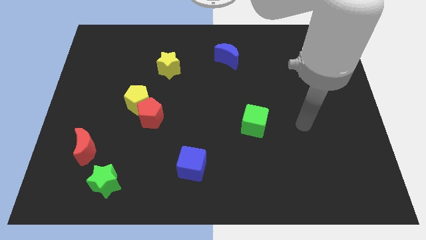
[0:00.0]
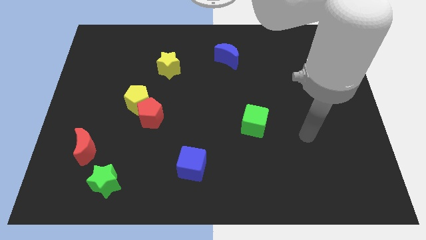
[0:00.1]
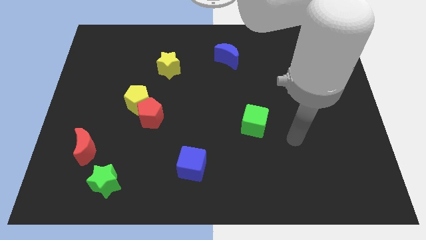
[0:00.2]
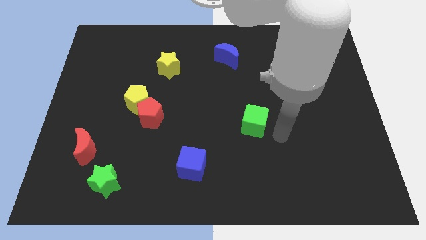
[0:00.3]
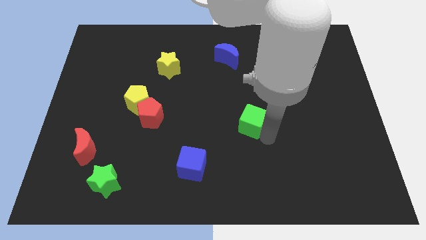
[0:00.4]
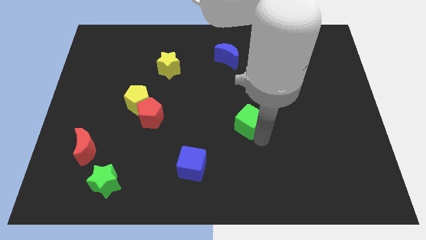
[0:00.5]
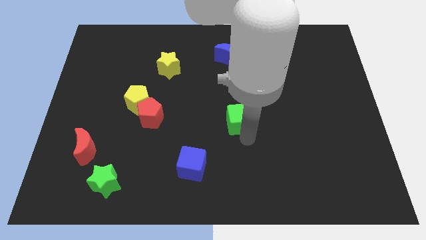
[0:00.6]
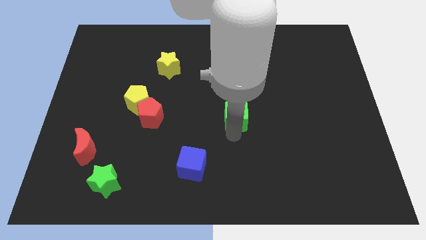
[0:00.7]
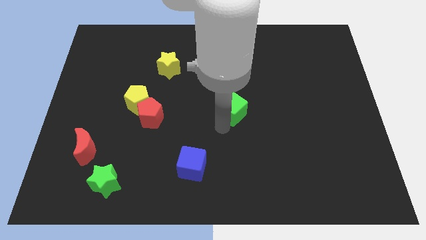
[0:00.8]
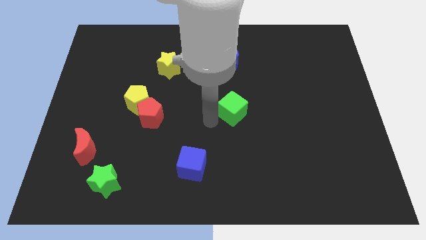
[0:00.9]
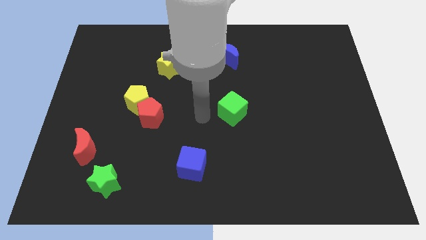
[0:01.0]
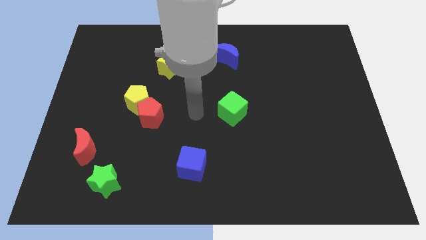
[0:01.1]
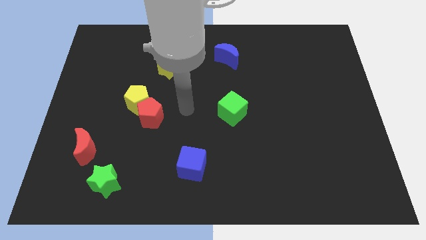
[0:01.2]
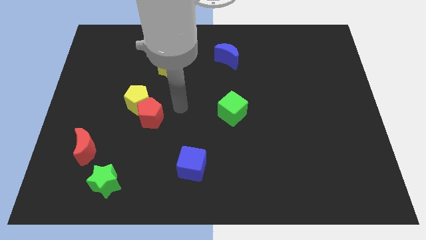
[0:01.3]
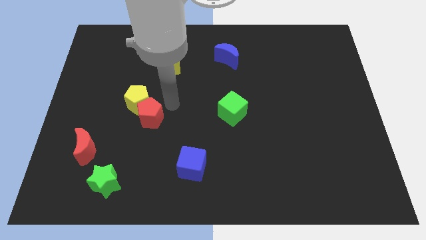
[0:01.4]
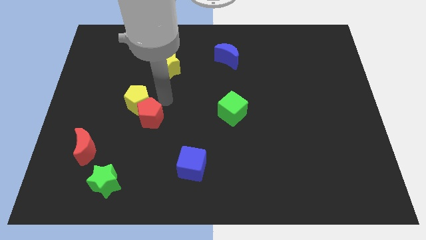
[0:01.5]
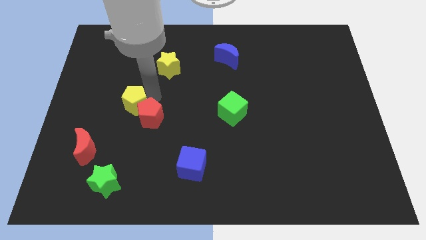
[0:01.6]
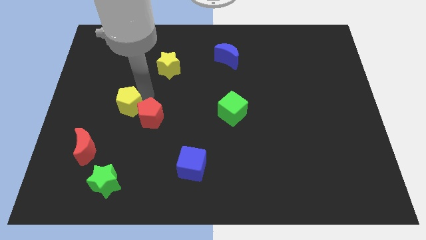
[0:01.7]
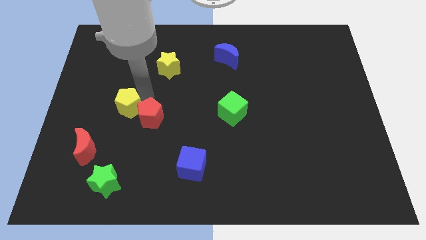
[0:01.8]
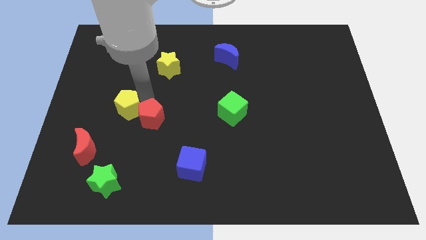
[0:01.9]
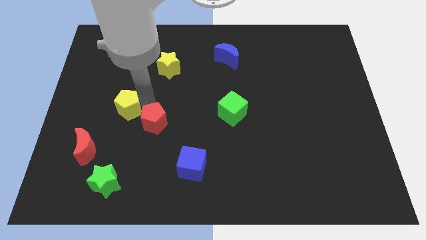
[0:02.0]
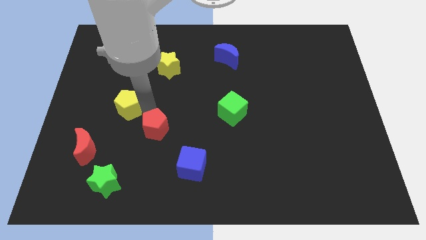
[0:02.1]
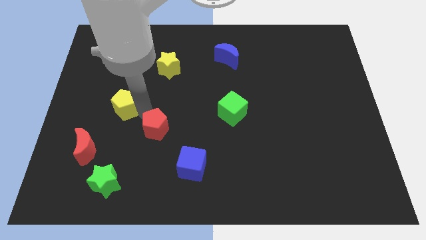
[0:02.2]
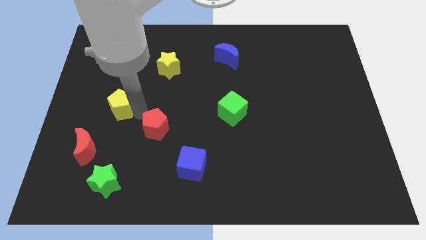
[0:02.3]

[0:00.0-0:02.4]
move the red pentagon away from the yellow pentagon

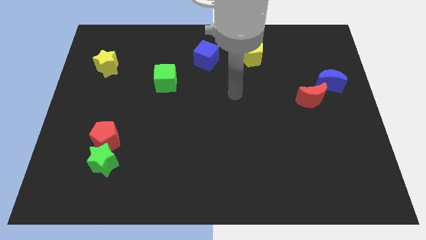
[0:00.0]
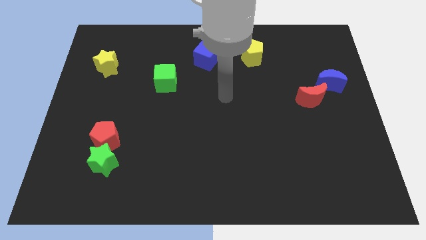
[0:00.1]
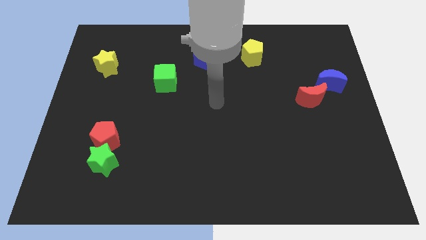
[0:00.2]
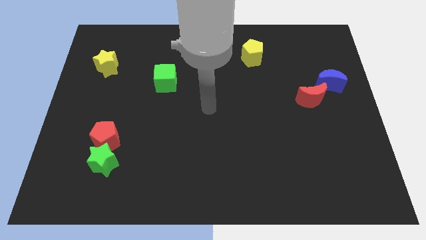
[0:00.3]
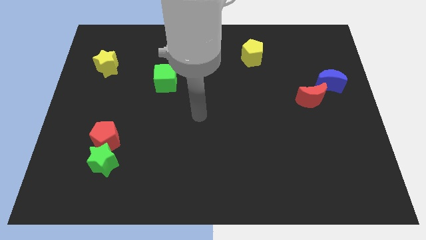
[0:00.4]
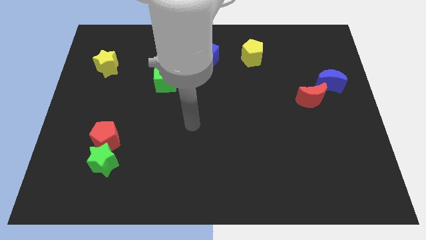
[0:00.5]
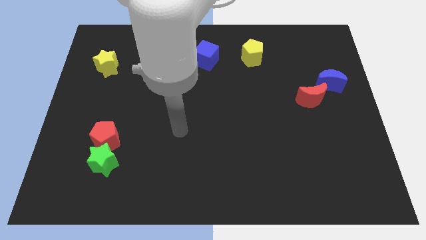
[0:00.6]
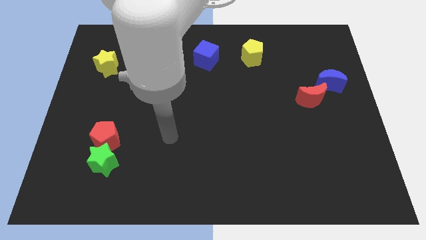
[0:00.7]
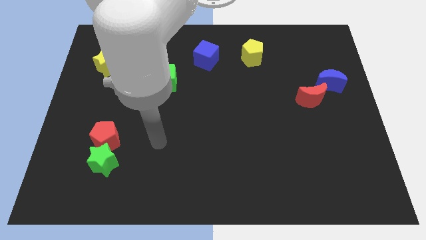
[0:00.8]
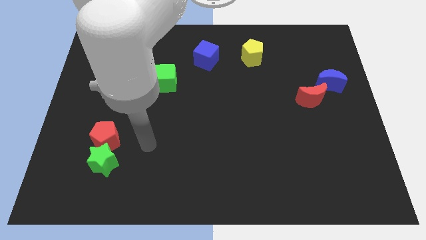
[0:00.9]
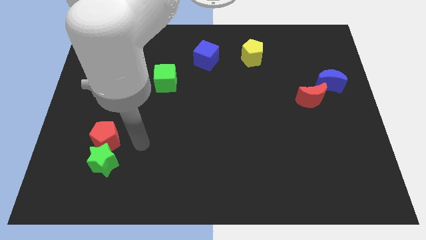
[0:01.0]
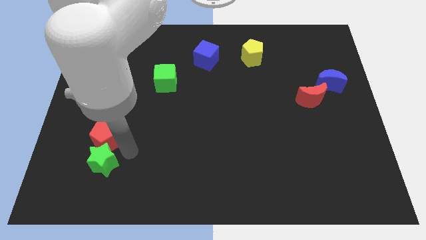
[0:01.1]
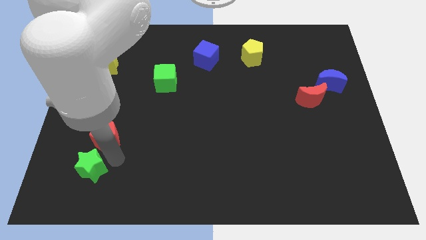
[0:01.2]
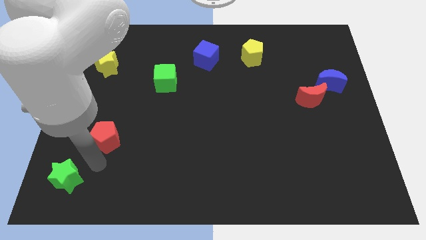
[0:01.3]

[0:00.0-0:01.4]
separate the red pentagon from the green star

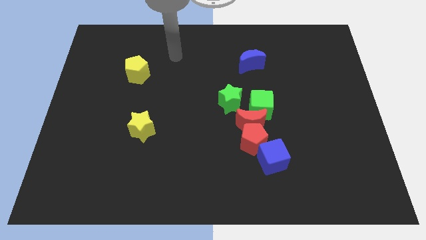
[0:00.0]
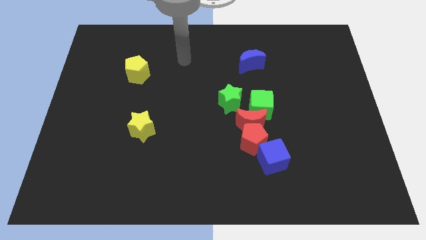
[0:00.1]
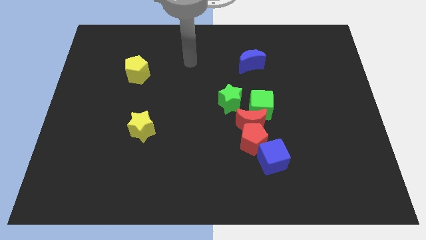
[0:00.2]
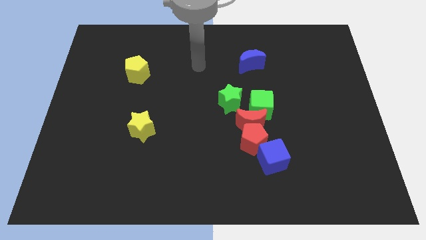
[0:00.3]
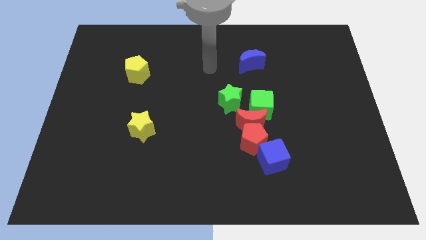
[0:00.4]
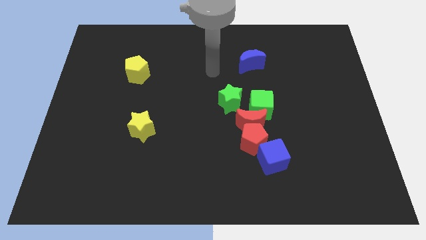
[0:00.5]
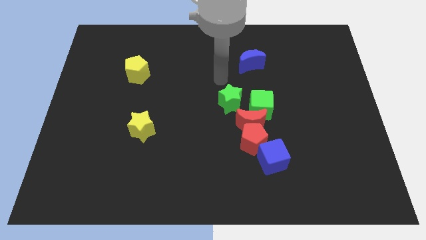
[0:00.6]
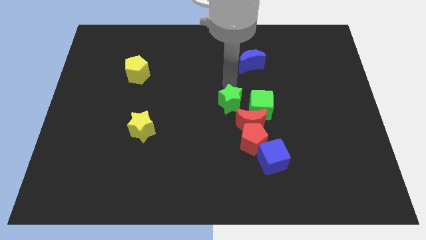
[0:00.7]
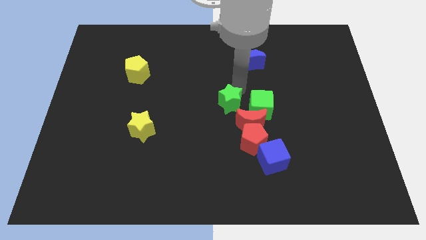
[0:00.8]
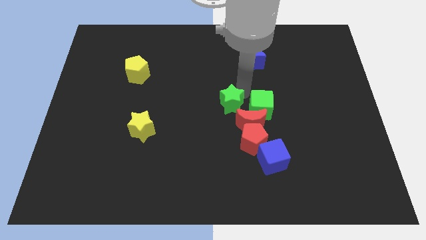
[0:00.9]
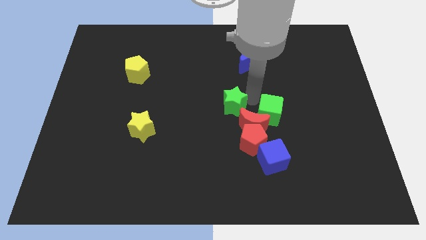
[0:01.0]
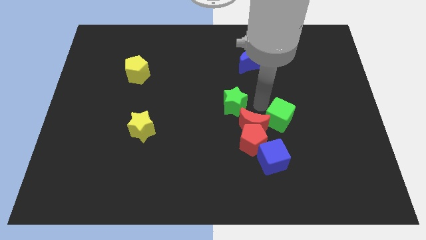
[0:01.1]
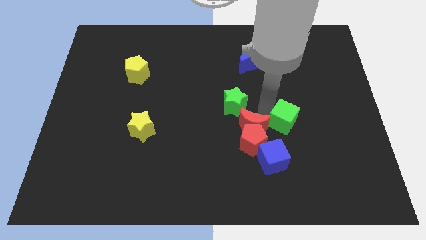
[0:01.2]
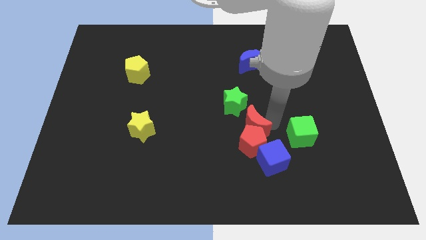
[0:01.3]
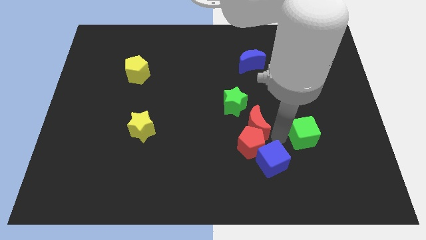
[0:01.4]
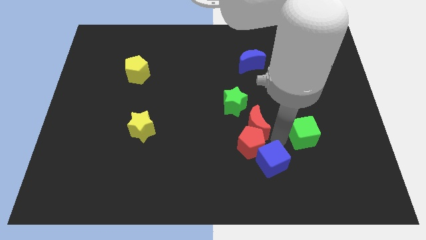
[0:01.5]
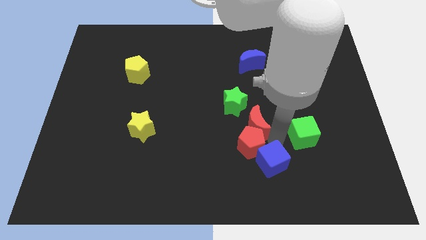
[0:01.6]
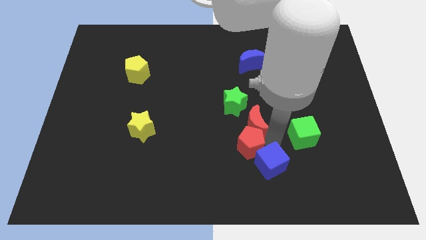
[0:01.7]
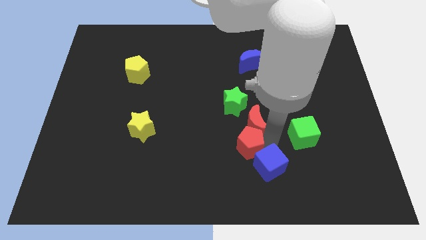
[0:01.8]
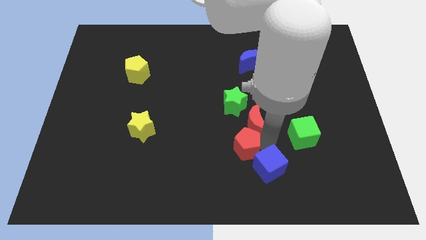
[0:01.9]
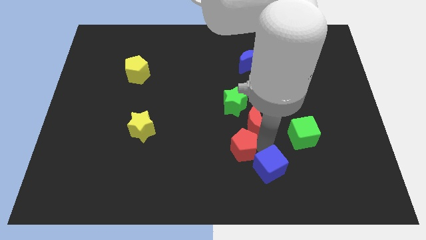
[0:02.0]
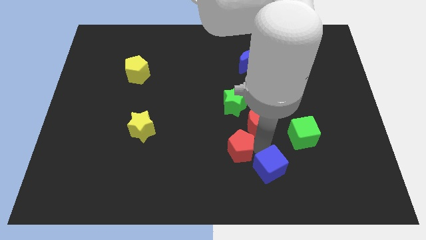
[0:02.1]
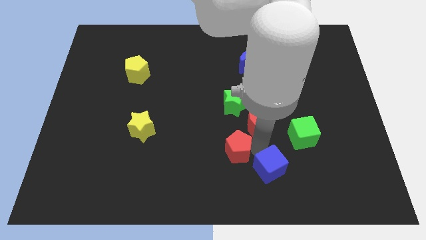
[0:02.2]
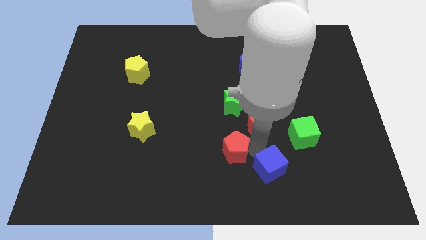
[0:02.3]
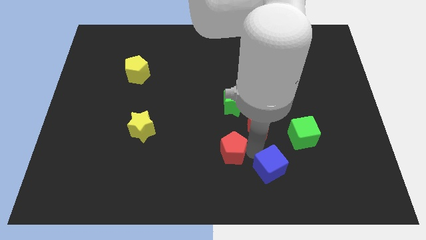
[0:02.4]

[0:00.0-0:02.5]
pull the red pentagon apart from the red moon, blue cube, and green cube

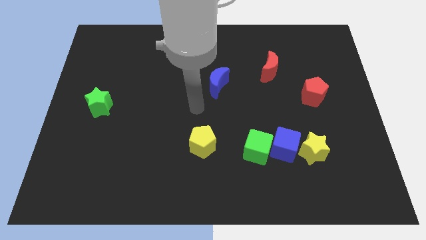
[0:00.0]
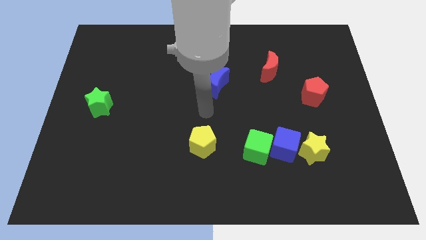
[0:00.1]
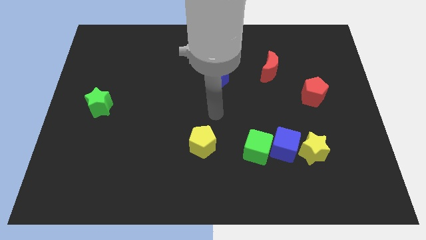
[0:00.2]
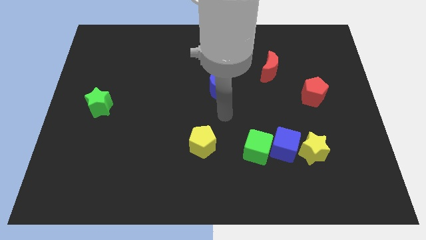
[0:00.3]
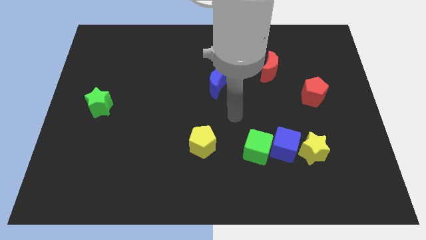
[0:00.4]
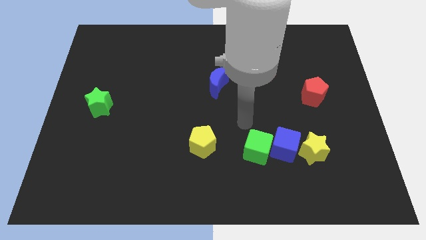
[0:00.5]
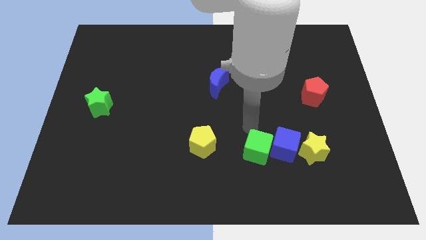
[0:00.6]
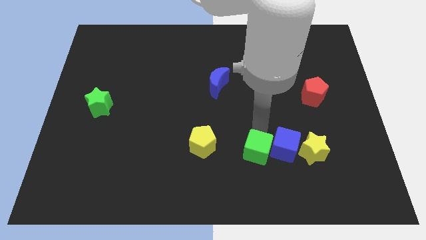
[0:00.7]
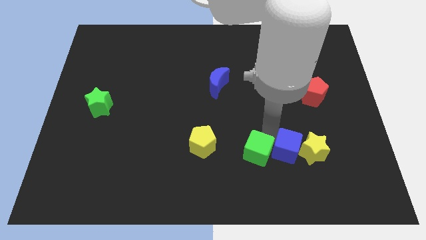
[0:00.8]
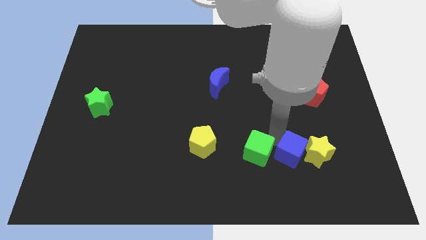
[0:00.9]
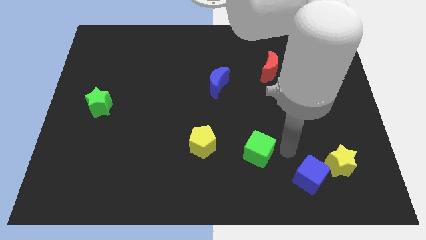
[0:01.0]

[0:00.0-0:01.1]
pull the green cube apart from the blue cube

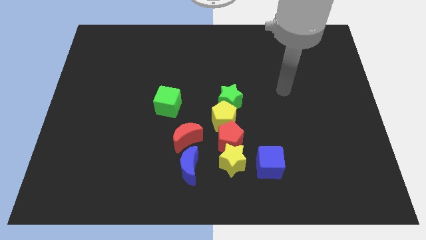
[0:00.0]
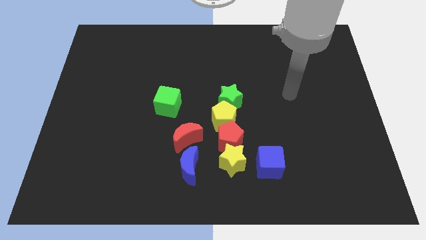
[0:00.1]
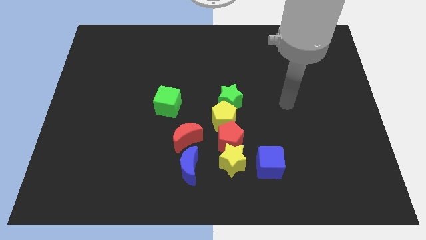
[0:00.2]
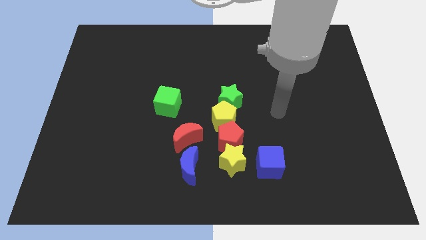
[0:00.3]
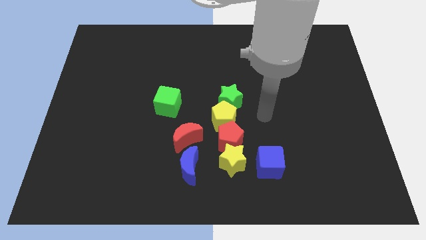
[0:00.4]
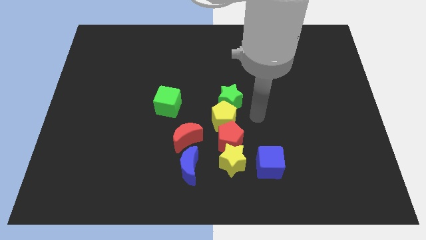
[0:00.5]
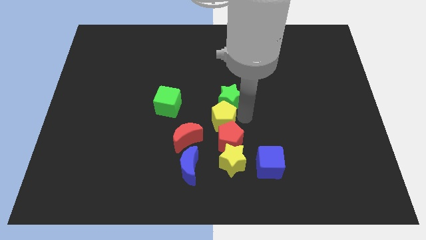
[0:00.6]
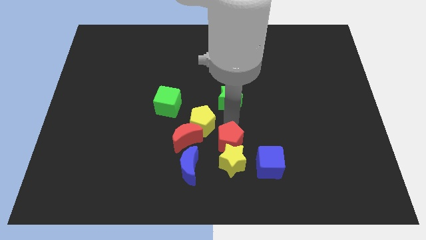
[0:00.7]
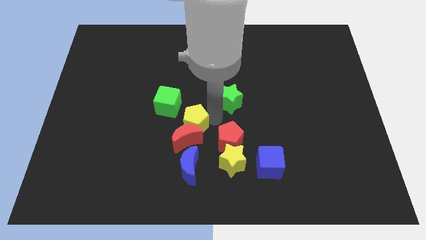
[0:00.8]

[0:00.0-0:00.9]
pull the green star apart from the yellow pentagon

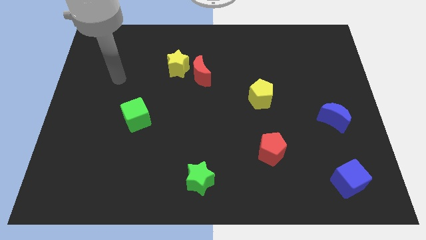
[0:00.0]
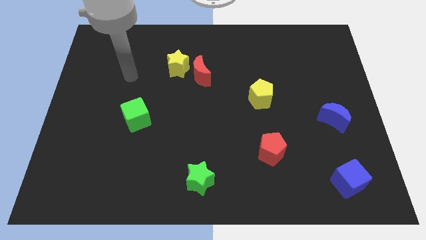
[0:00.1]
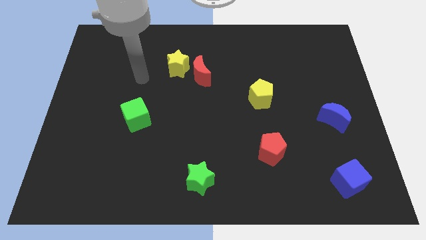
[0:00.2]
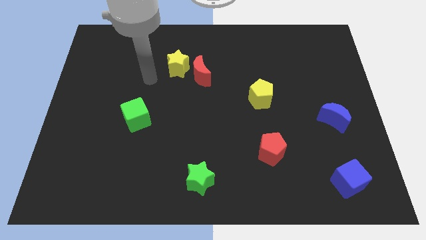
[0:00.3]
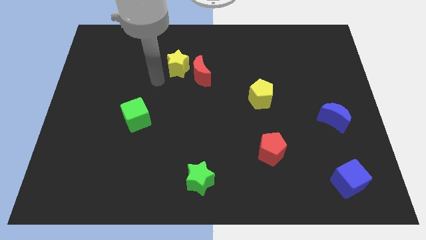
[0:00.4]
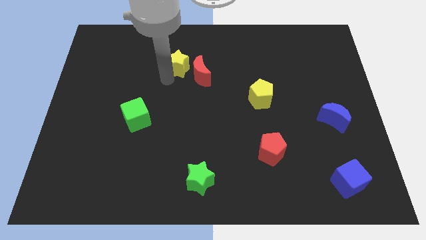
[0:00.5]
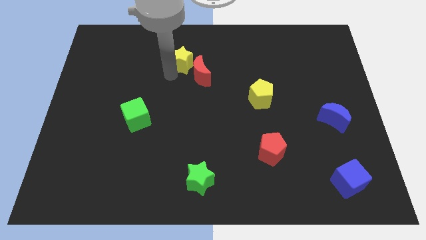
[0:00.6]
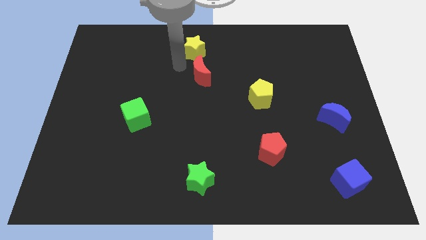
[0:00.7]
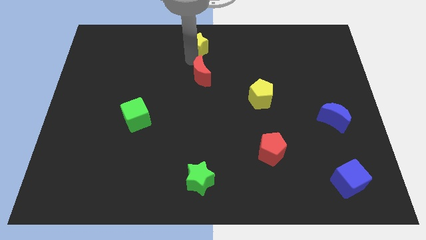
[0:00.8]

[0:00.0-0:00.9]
pull the red moon apart from the yellow star
